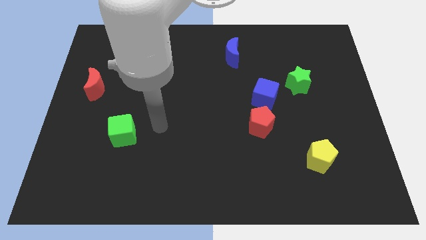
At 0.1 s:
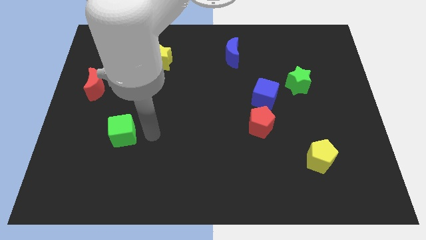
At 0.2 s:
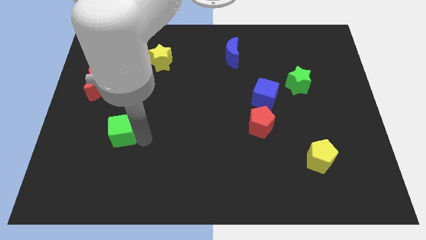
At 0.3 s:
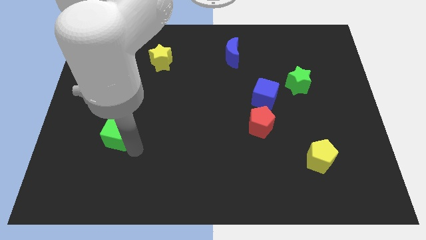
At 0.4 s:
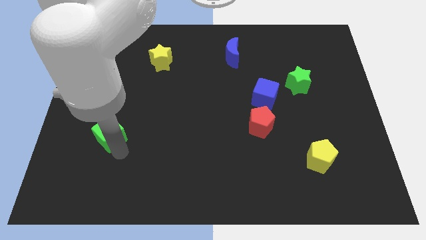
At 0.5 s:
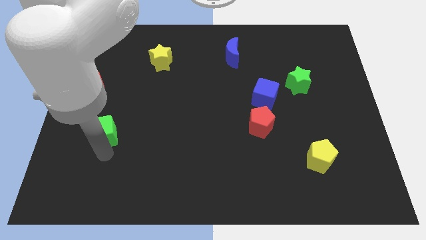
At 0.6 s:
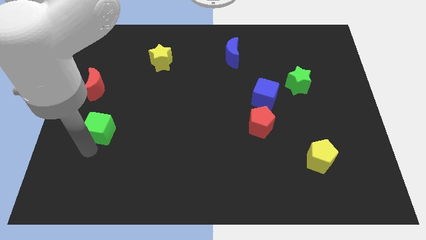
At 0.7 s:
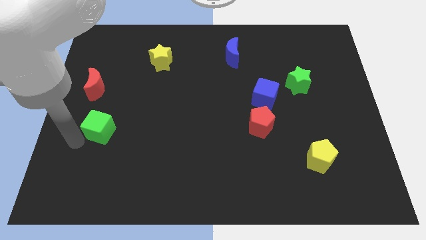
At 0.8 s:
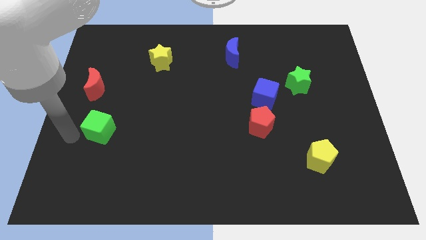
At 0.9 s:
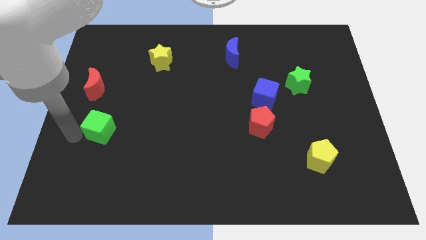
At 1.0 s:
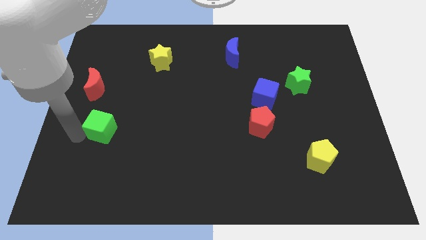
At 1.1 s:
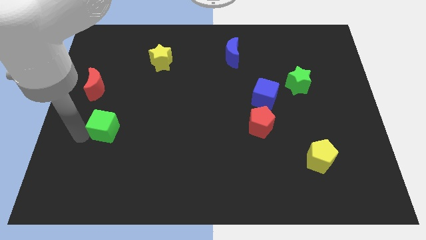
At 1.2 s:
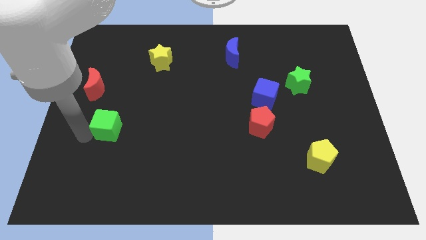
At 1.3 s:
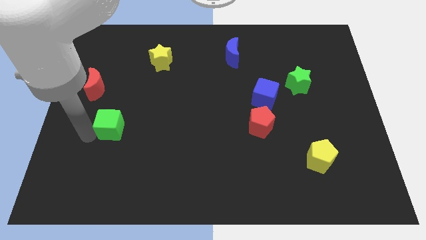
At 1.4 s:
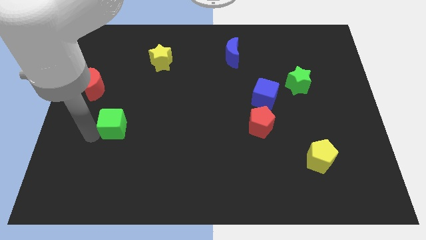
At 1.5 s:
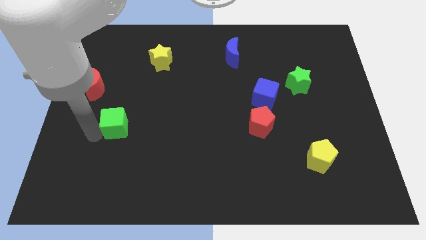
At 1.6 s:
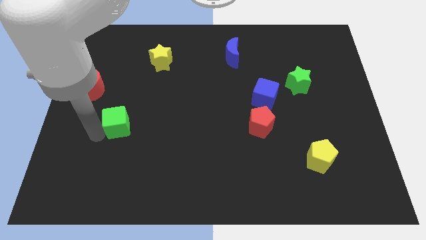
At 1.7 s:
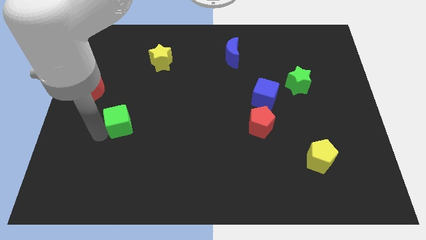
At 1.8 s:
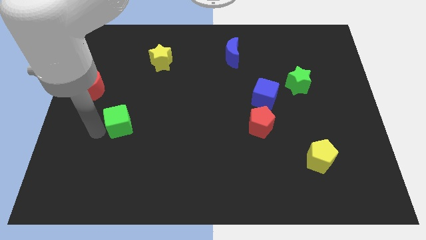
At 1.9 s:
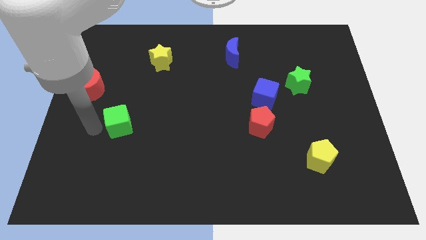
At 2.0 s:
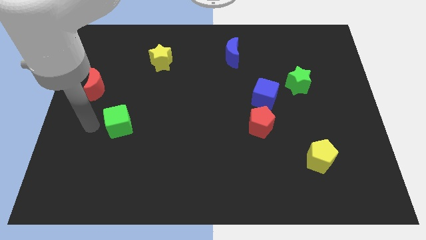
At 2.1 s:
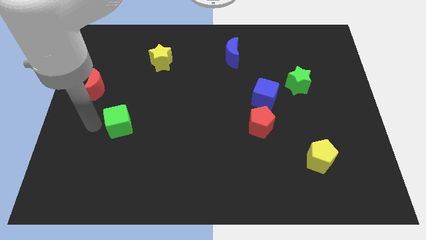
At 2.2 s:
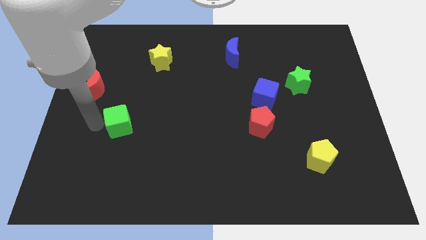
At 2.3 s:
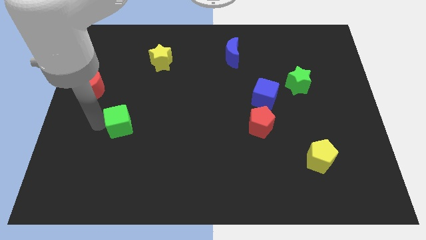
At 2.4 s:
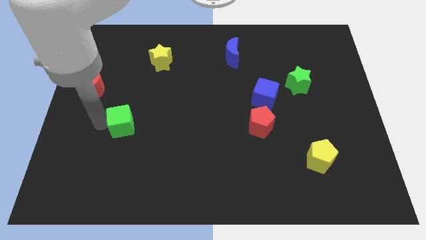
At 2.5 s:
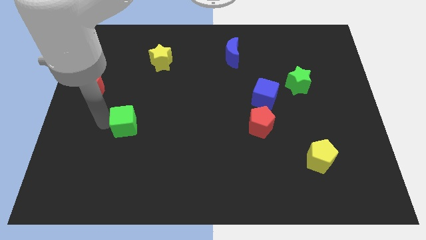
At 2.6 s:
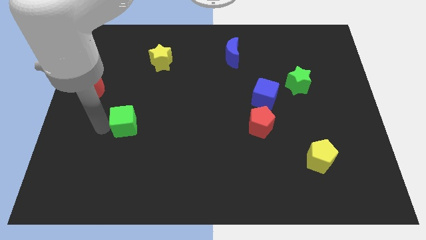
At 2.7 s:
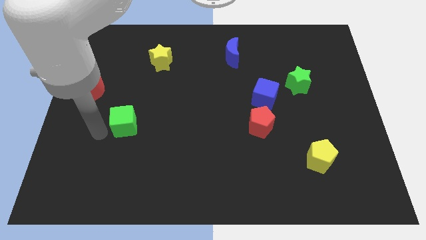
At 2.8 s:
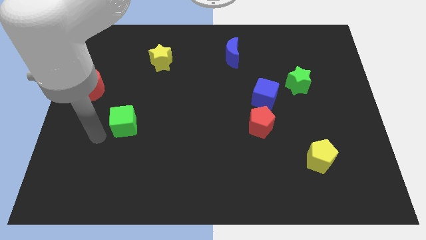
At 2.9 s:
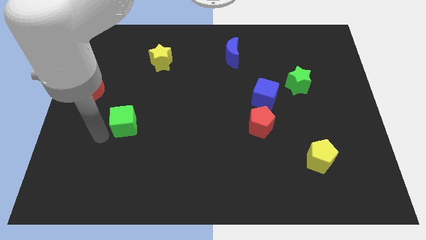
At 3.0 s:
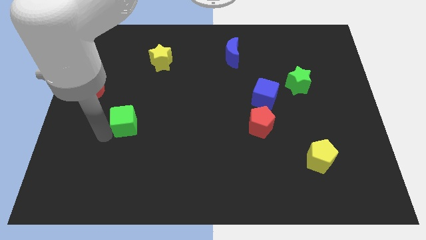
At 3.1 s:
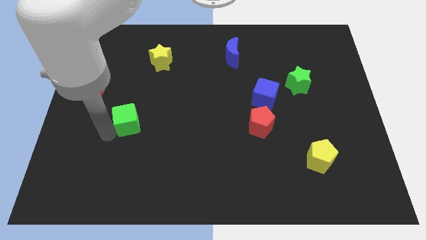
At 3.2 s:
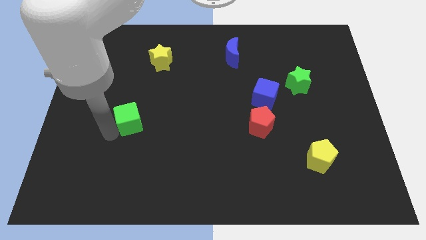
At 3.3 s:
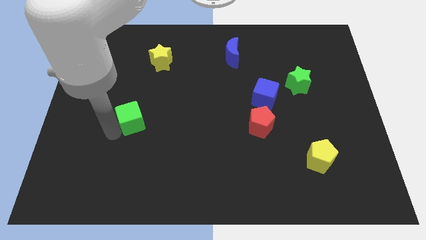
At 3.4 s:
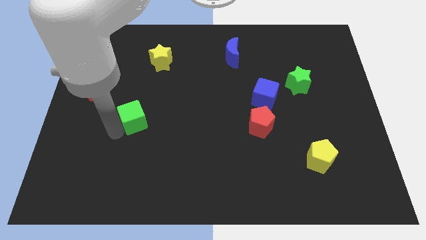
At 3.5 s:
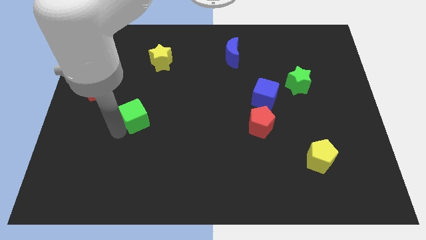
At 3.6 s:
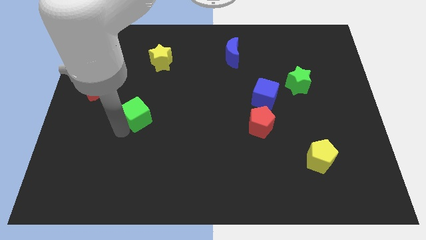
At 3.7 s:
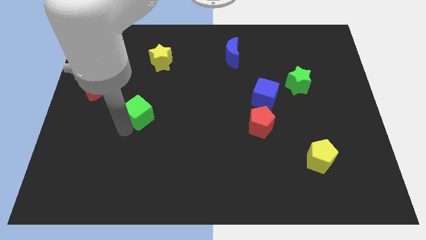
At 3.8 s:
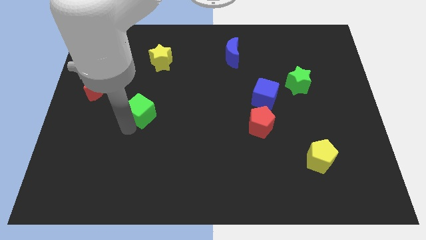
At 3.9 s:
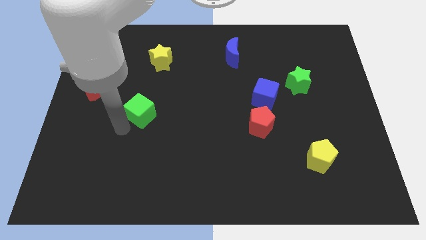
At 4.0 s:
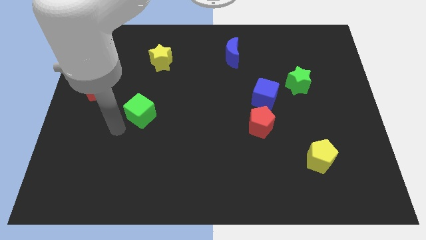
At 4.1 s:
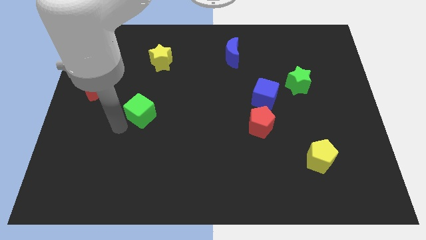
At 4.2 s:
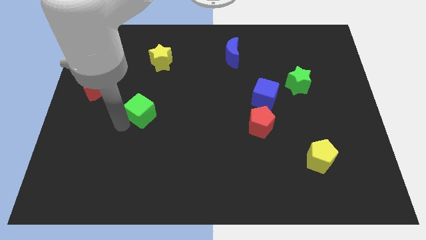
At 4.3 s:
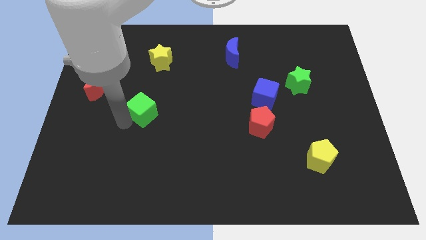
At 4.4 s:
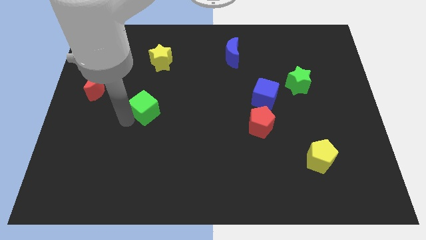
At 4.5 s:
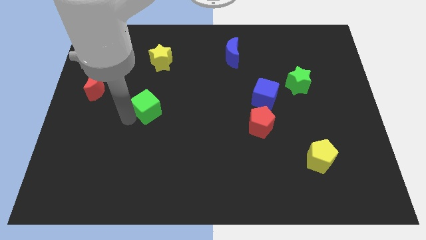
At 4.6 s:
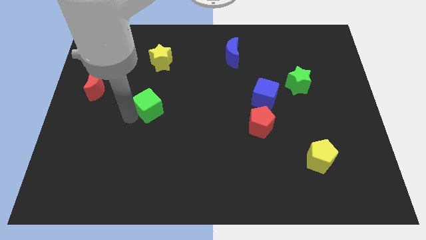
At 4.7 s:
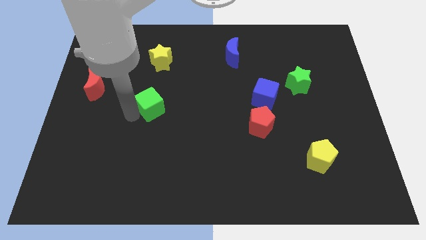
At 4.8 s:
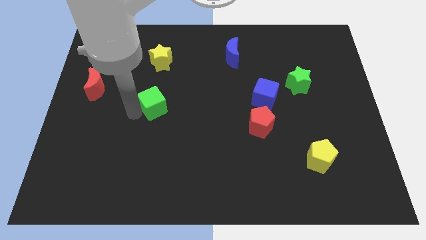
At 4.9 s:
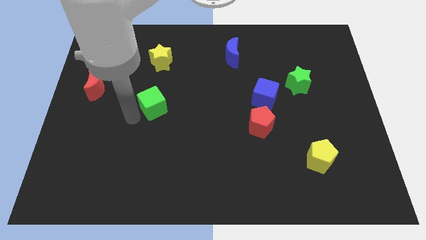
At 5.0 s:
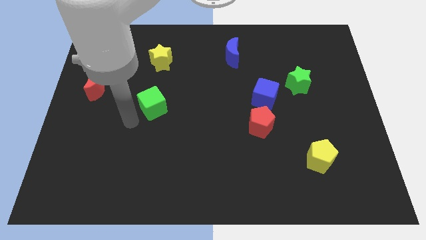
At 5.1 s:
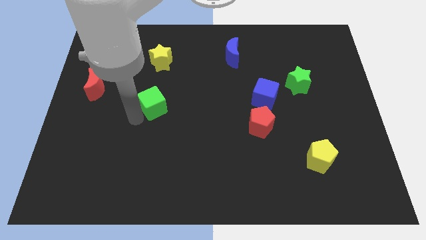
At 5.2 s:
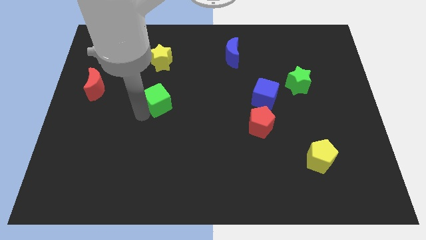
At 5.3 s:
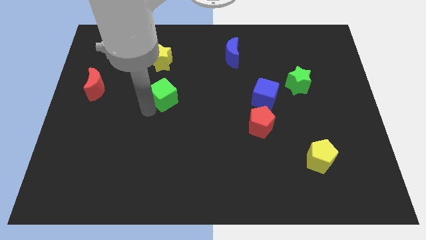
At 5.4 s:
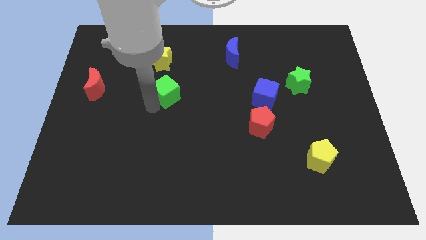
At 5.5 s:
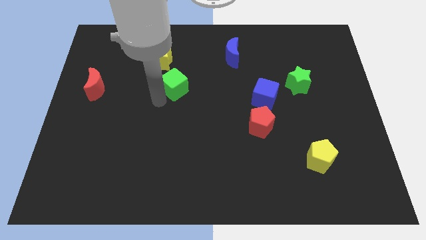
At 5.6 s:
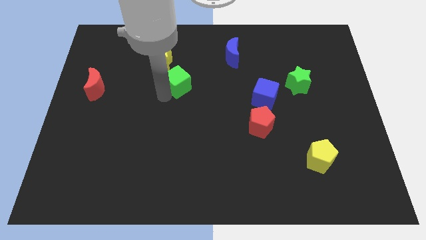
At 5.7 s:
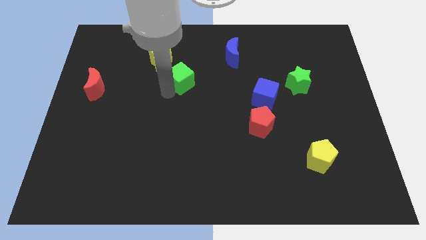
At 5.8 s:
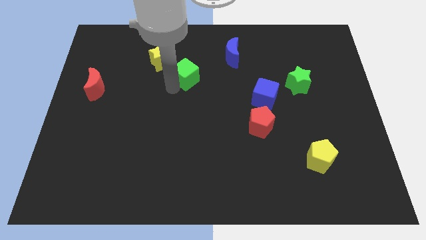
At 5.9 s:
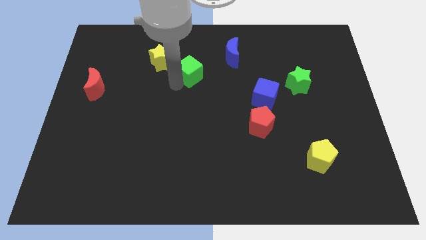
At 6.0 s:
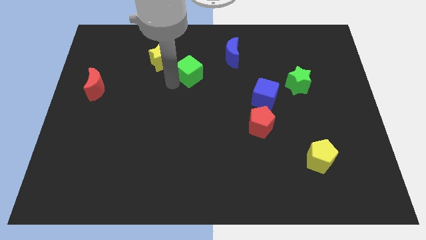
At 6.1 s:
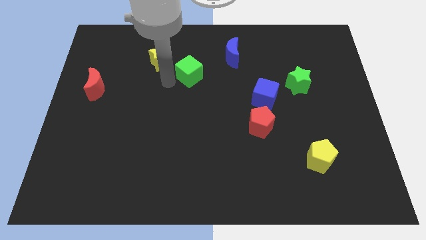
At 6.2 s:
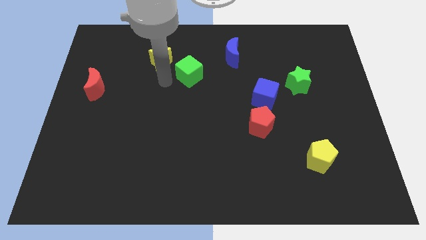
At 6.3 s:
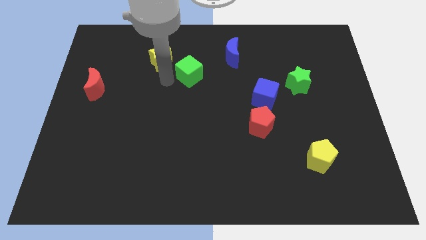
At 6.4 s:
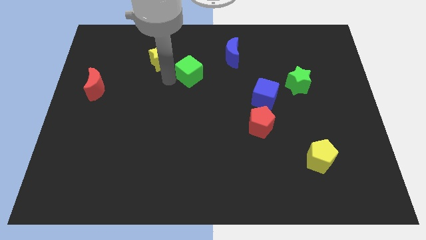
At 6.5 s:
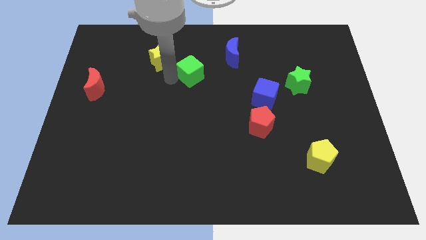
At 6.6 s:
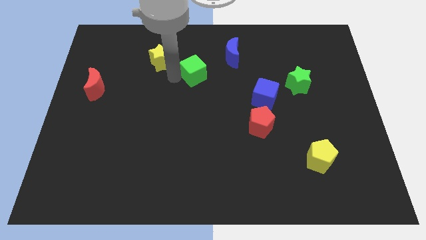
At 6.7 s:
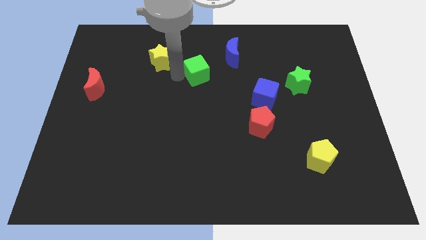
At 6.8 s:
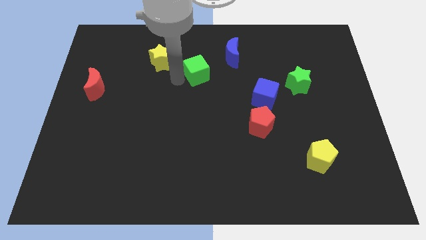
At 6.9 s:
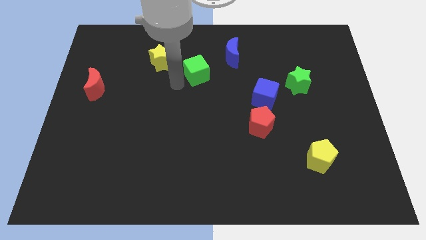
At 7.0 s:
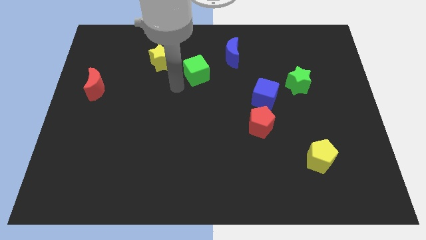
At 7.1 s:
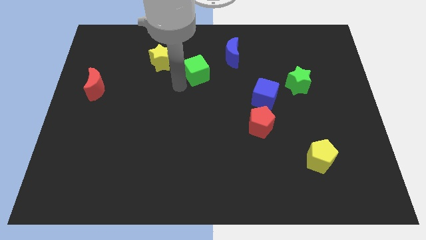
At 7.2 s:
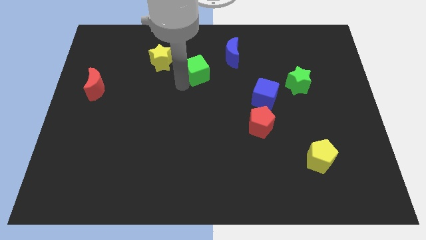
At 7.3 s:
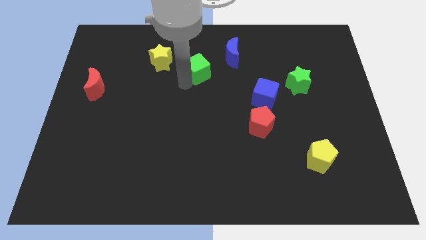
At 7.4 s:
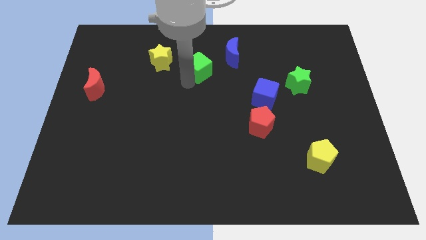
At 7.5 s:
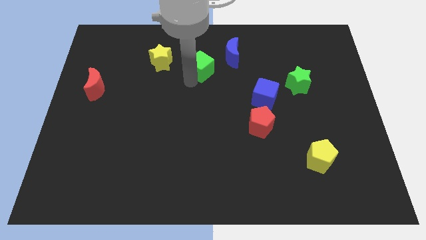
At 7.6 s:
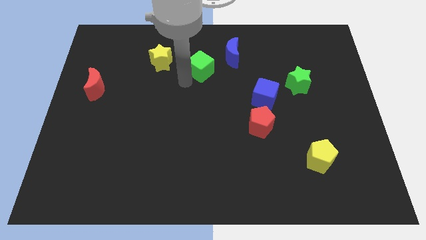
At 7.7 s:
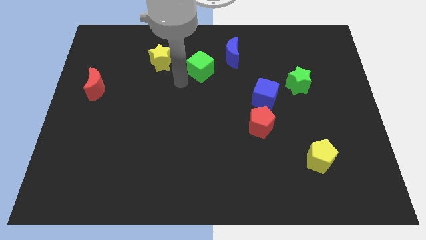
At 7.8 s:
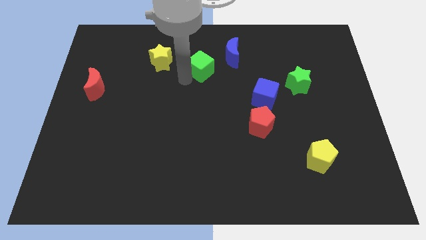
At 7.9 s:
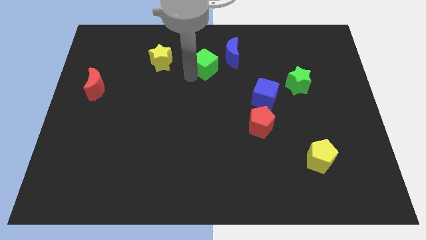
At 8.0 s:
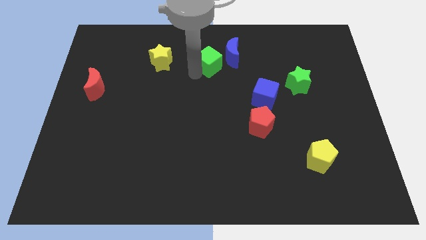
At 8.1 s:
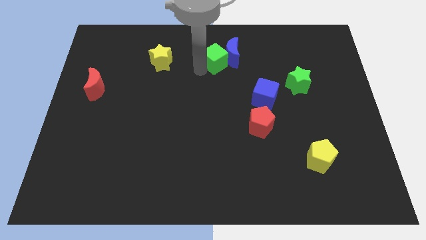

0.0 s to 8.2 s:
move the green cube to the blue moon
